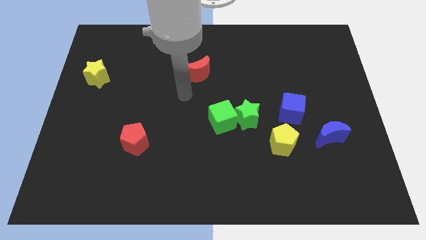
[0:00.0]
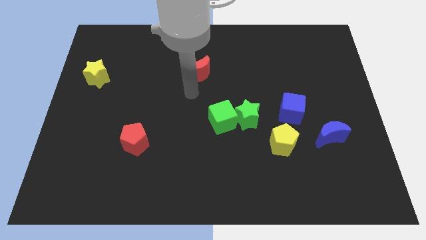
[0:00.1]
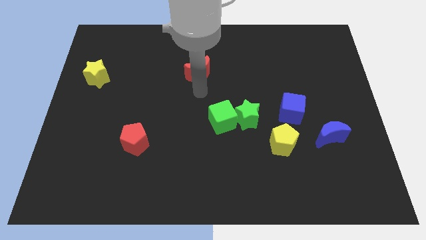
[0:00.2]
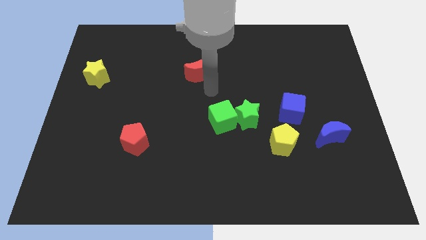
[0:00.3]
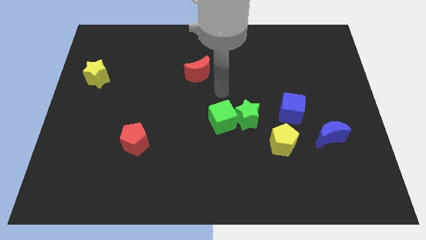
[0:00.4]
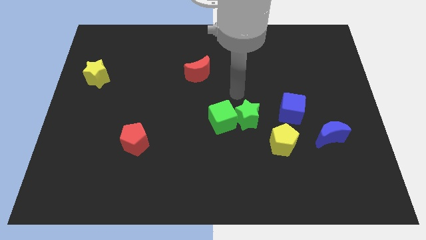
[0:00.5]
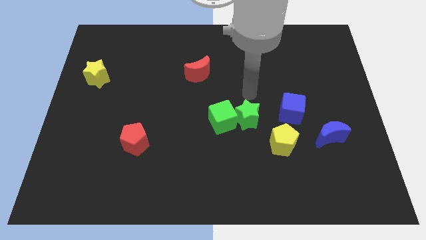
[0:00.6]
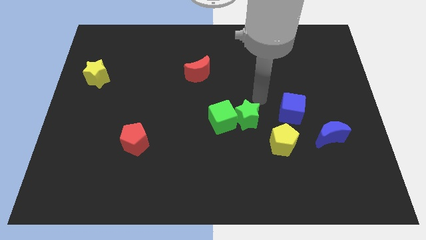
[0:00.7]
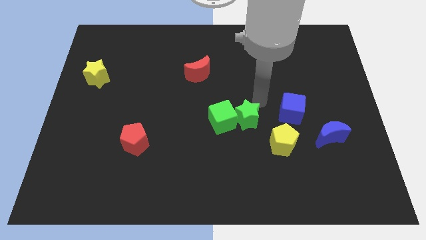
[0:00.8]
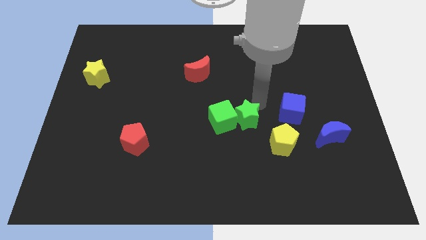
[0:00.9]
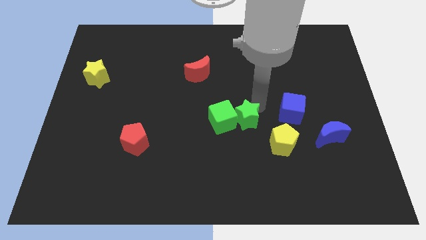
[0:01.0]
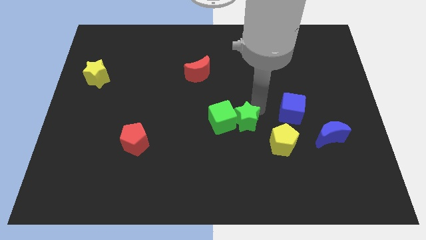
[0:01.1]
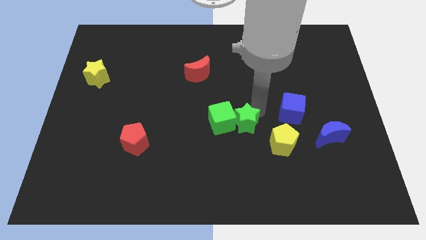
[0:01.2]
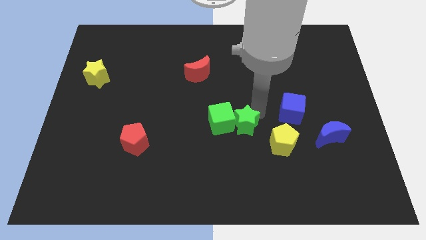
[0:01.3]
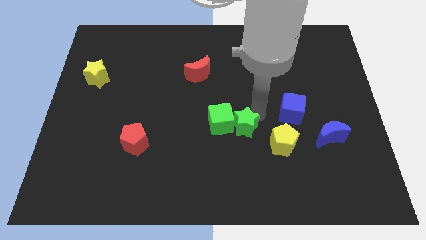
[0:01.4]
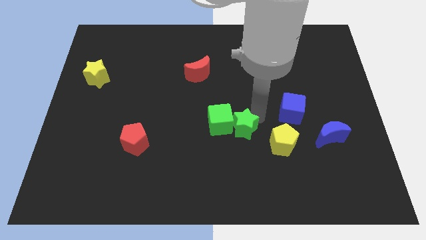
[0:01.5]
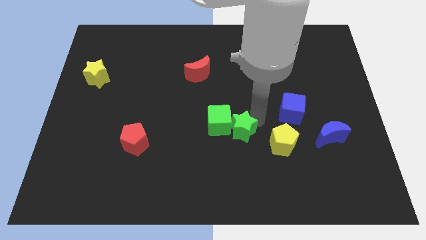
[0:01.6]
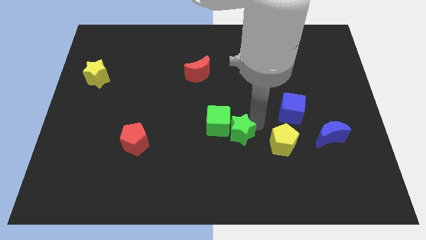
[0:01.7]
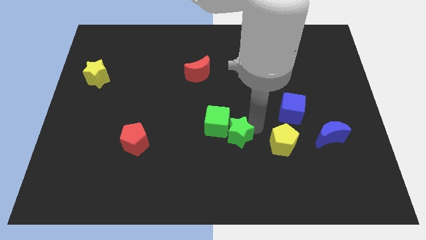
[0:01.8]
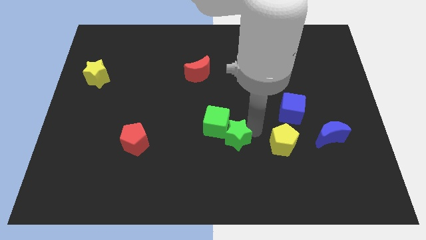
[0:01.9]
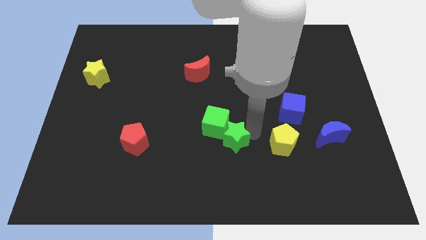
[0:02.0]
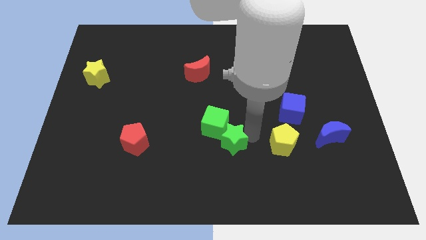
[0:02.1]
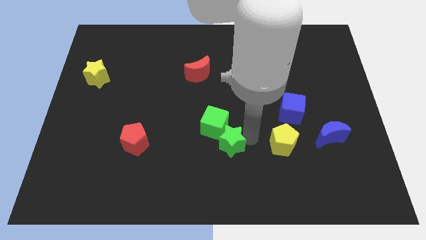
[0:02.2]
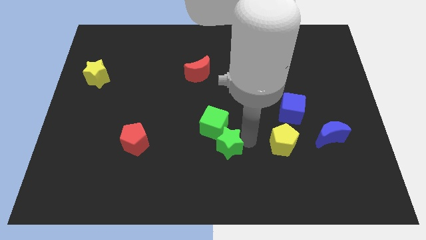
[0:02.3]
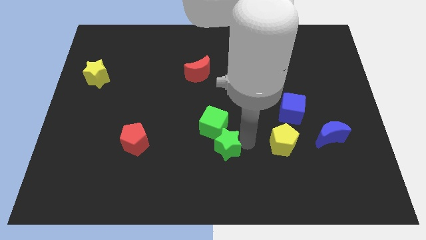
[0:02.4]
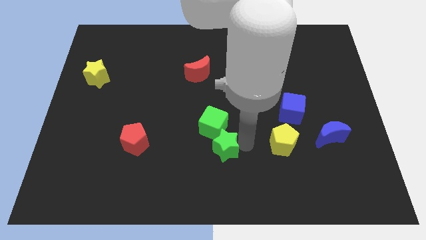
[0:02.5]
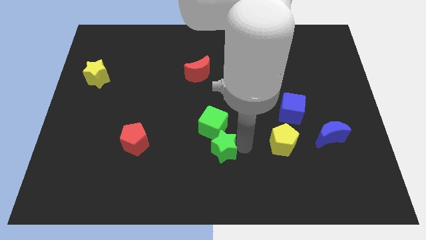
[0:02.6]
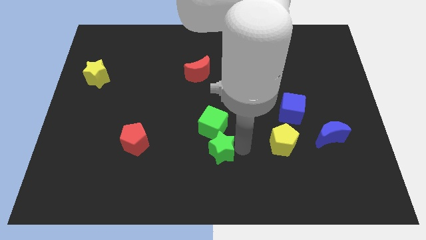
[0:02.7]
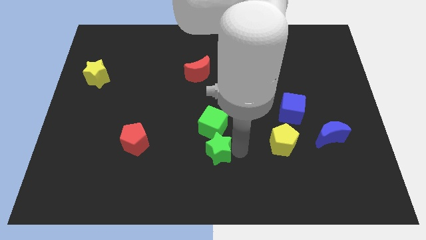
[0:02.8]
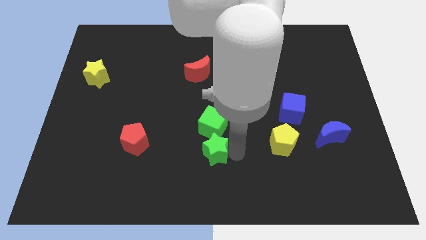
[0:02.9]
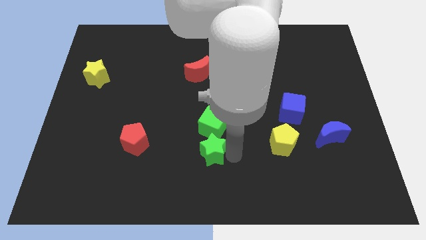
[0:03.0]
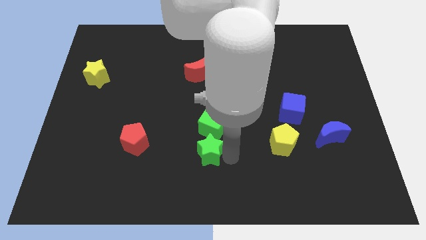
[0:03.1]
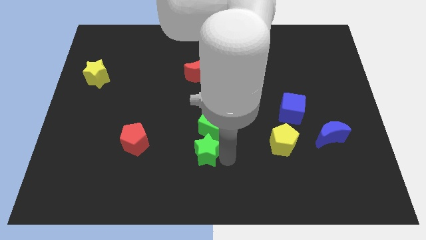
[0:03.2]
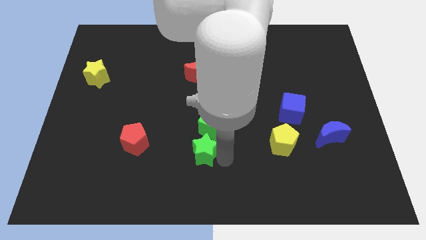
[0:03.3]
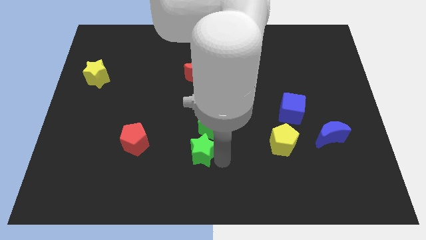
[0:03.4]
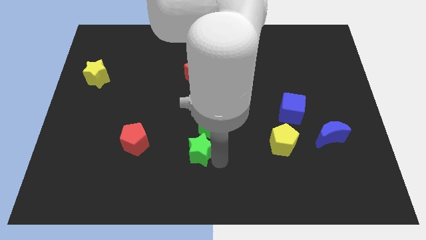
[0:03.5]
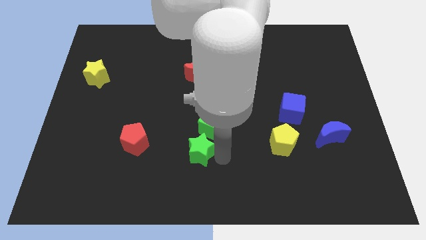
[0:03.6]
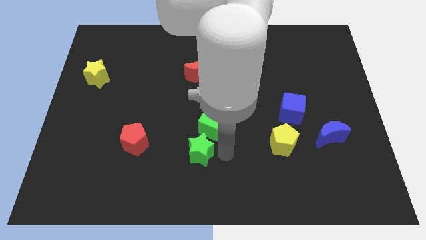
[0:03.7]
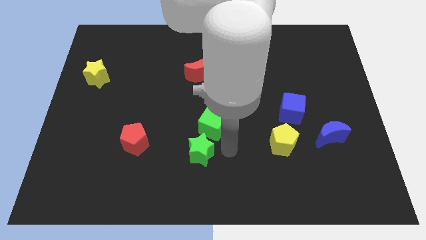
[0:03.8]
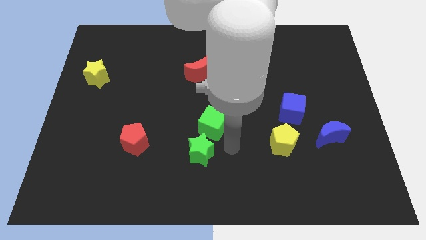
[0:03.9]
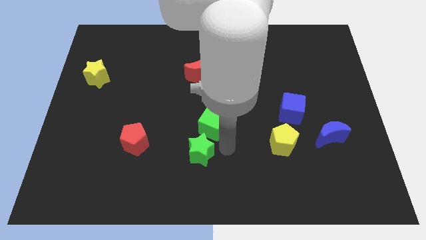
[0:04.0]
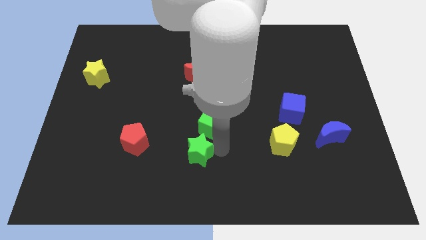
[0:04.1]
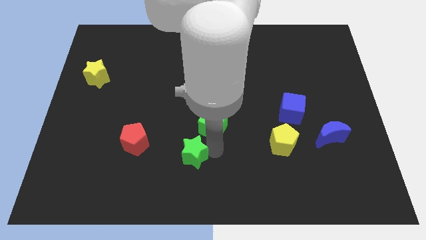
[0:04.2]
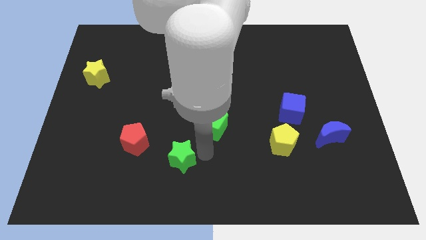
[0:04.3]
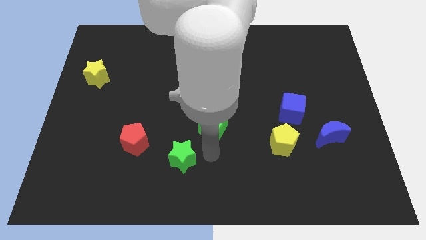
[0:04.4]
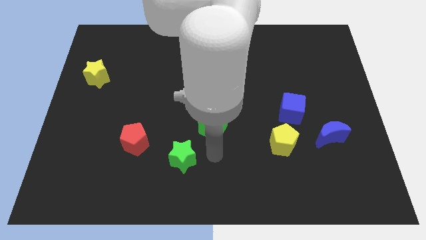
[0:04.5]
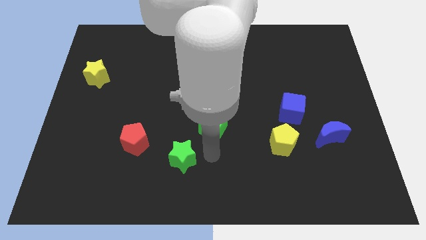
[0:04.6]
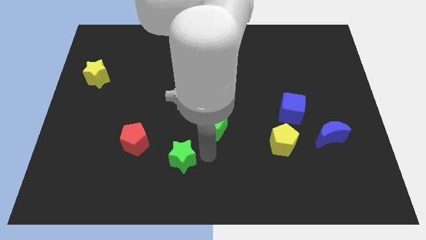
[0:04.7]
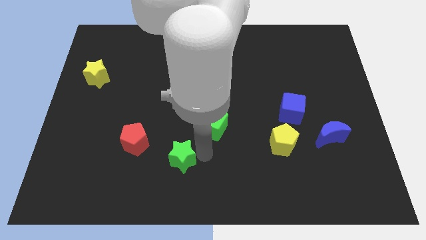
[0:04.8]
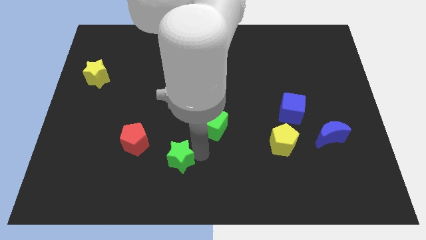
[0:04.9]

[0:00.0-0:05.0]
move the green star to the bottom right side of the red pentagon

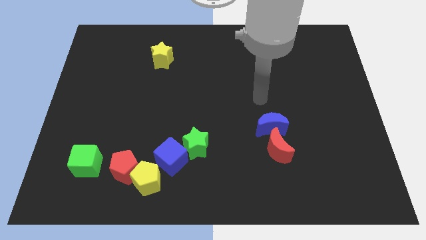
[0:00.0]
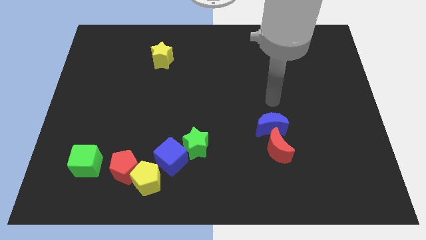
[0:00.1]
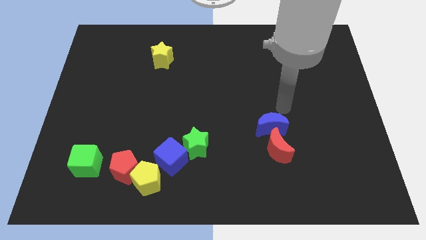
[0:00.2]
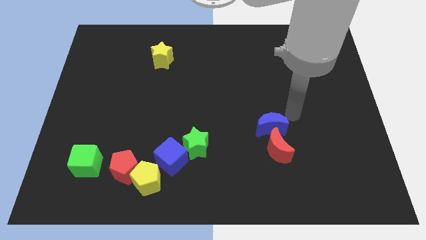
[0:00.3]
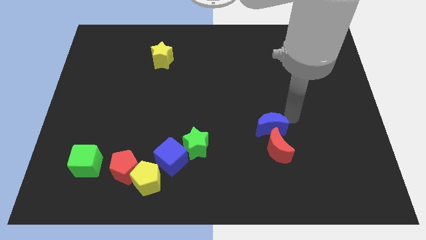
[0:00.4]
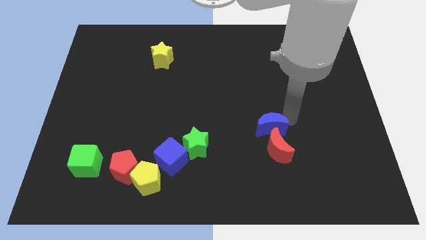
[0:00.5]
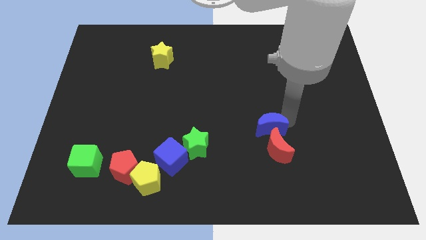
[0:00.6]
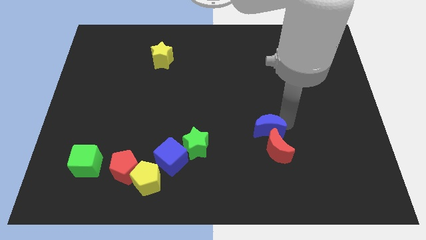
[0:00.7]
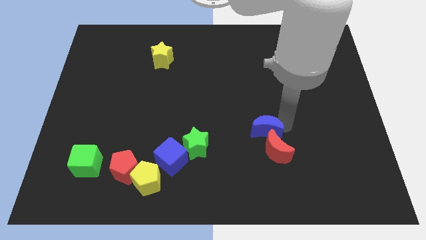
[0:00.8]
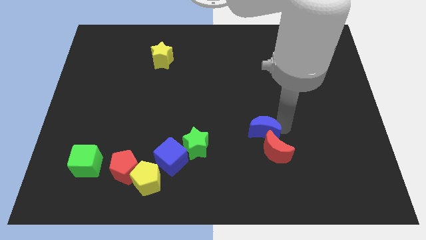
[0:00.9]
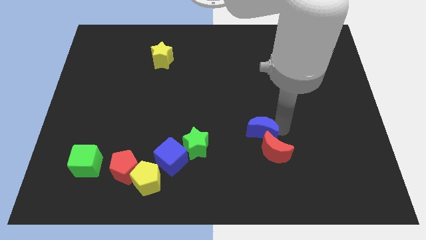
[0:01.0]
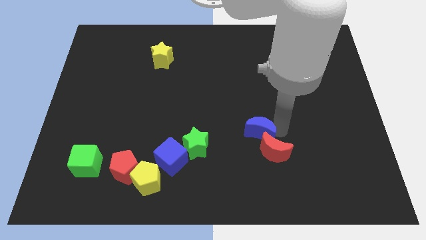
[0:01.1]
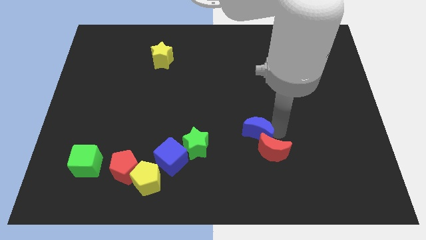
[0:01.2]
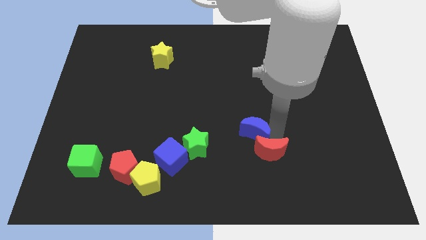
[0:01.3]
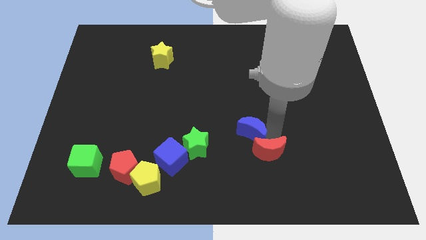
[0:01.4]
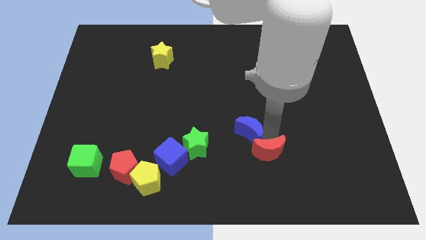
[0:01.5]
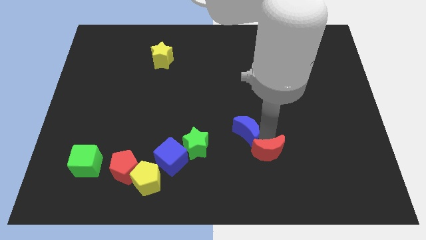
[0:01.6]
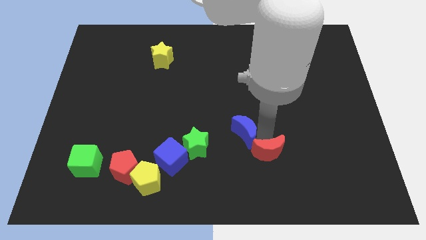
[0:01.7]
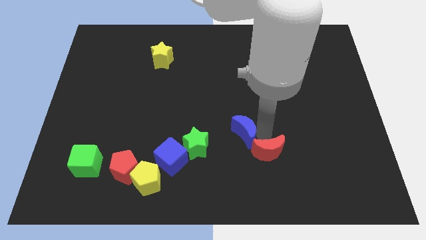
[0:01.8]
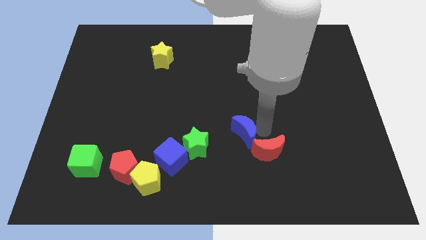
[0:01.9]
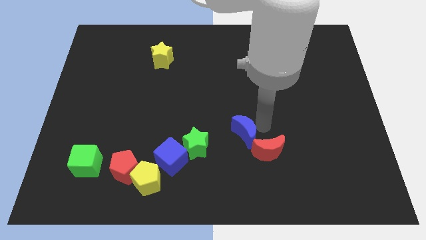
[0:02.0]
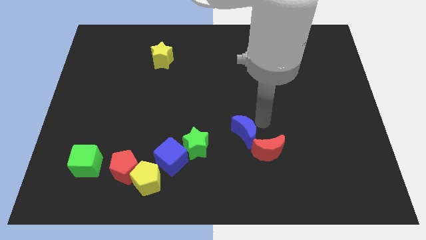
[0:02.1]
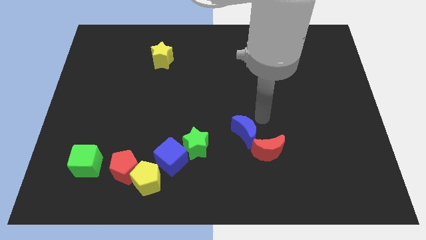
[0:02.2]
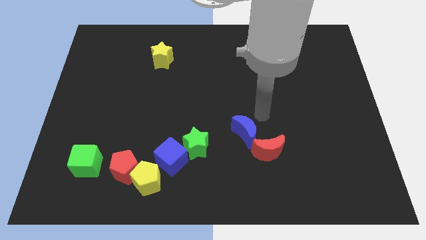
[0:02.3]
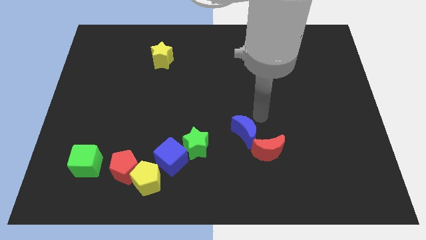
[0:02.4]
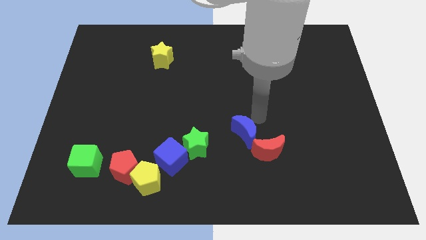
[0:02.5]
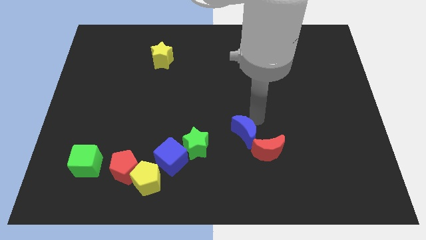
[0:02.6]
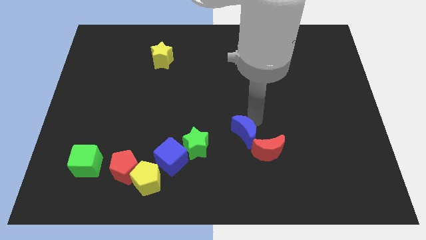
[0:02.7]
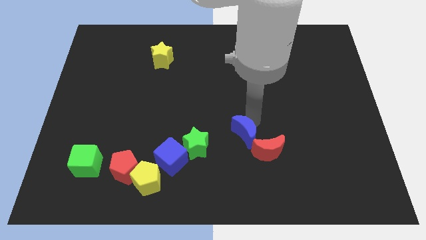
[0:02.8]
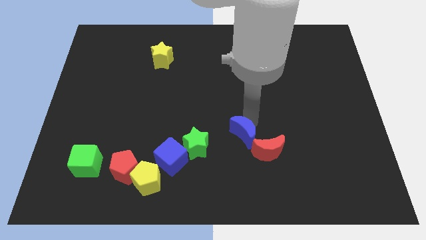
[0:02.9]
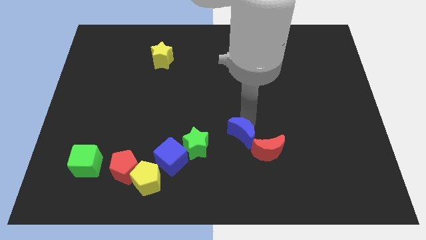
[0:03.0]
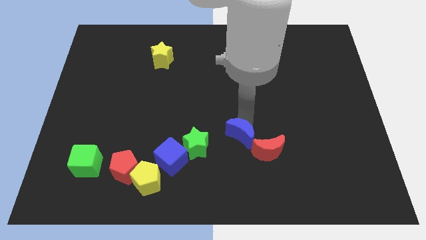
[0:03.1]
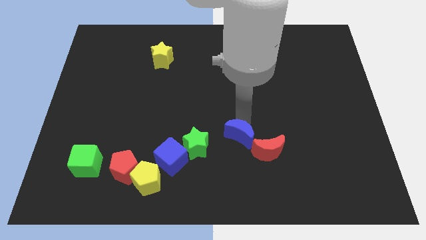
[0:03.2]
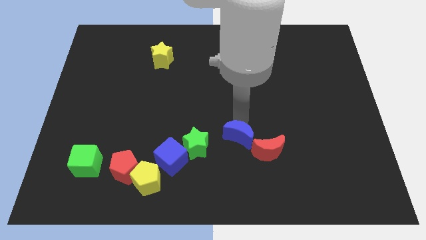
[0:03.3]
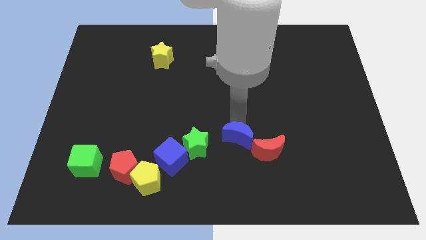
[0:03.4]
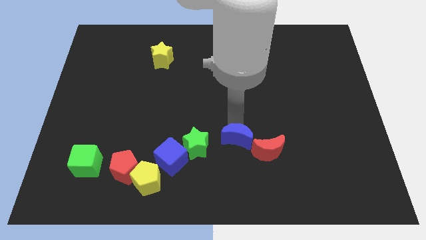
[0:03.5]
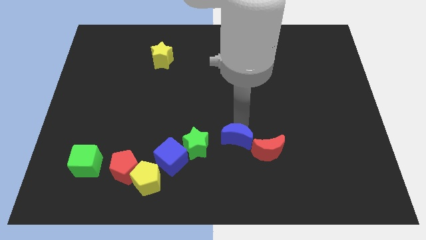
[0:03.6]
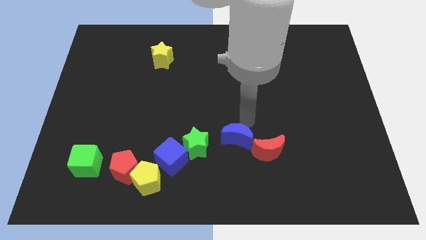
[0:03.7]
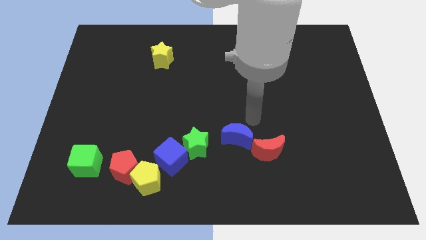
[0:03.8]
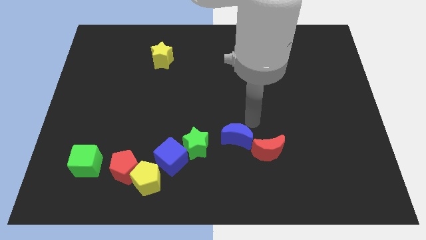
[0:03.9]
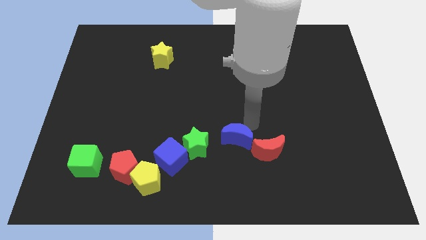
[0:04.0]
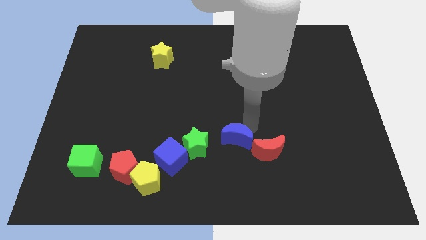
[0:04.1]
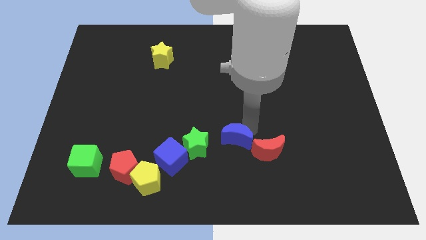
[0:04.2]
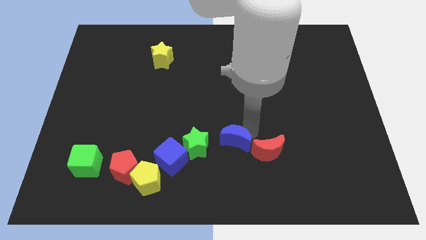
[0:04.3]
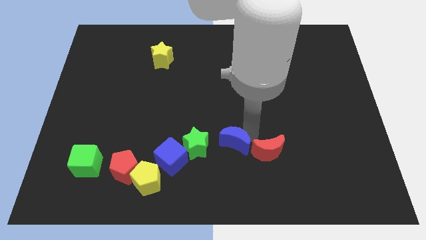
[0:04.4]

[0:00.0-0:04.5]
slide the blue moon to the right side of the blue cube
